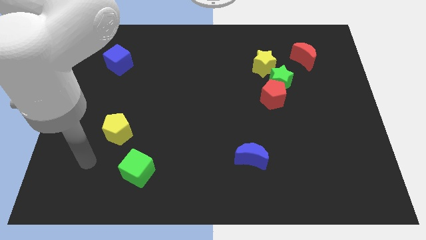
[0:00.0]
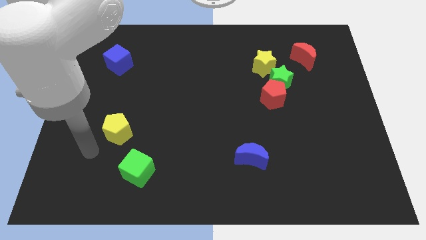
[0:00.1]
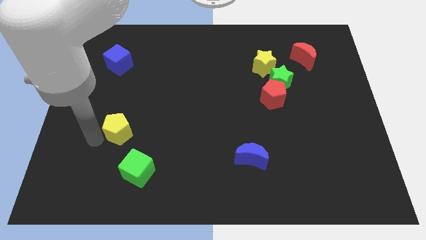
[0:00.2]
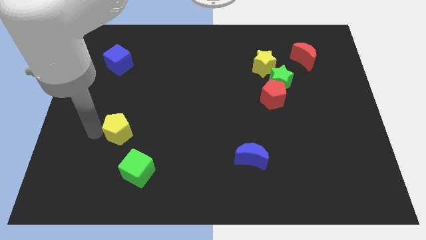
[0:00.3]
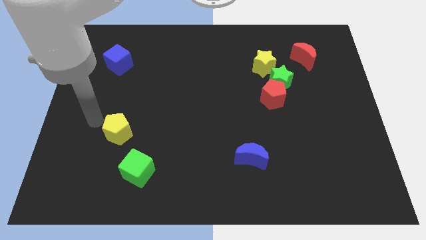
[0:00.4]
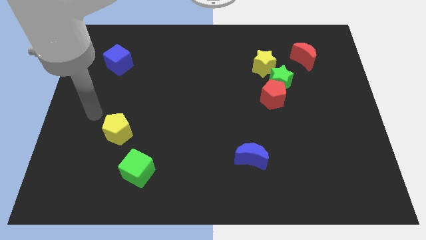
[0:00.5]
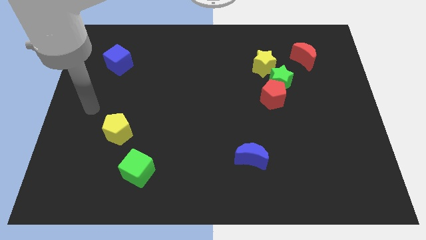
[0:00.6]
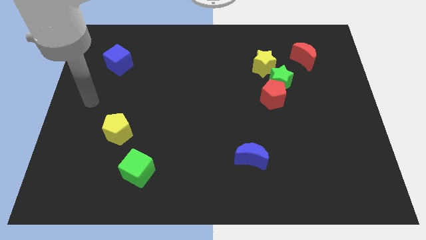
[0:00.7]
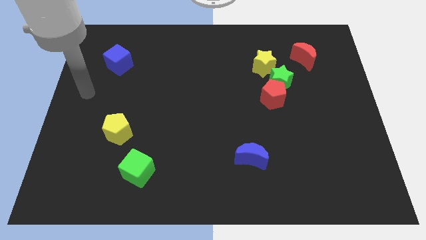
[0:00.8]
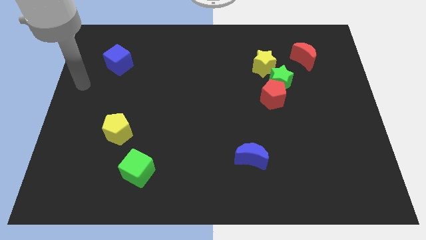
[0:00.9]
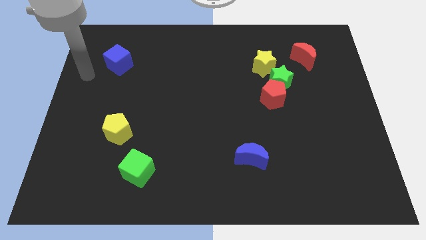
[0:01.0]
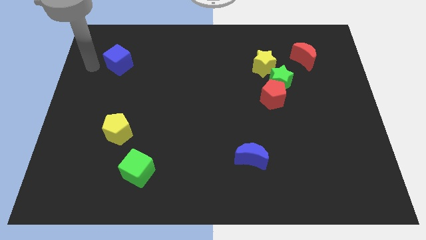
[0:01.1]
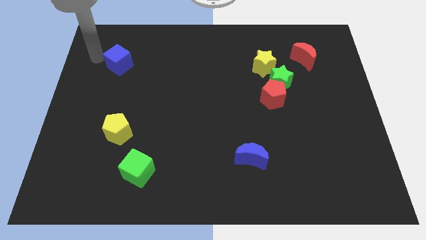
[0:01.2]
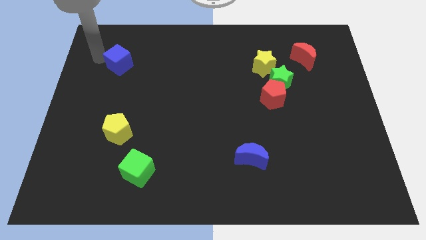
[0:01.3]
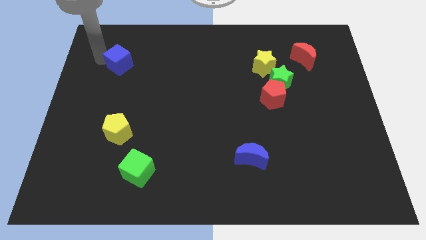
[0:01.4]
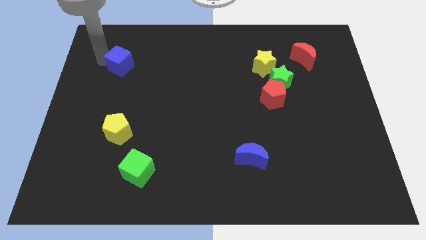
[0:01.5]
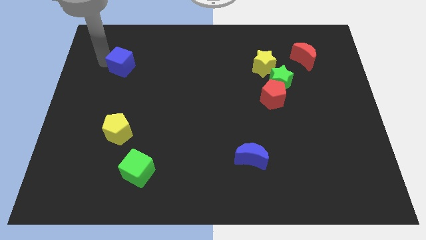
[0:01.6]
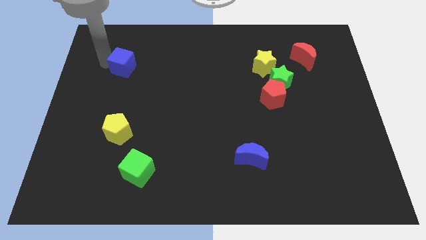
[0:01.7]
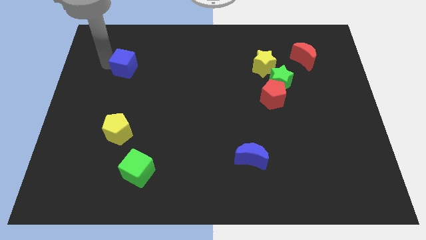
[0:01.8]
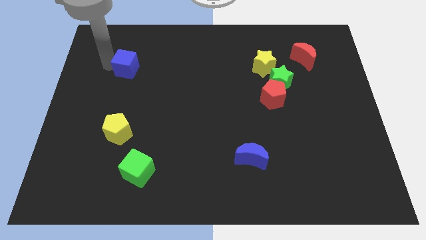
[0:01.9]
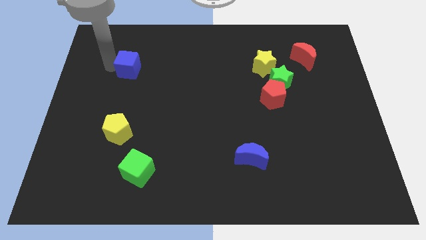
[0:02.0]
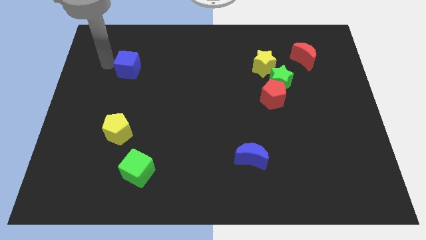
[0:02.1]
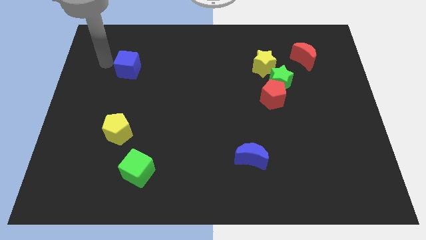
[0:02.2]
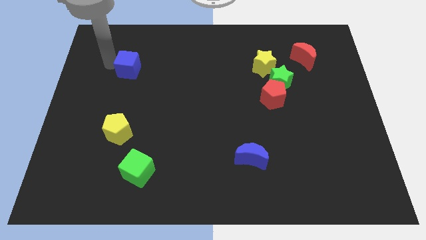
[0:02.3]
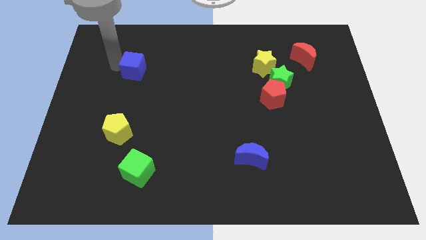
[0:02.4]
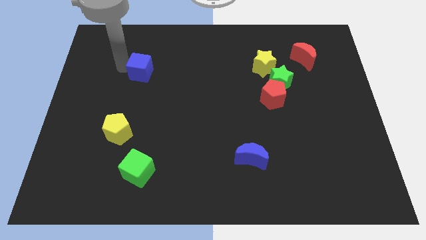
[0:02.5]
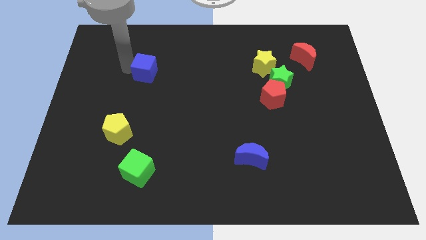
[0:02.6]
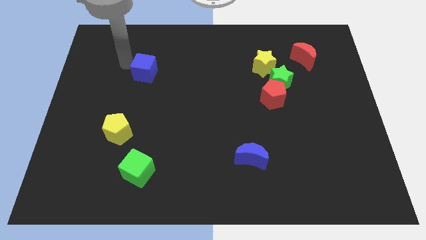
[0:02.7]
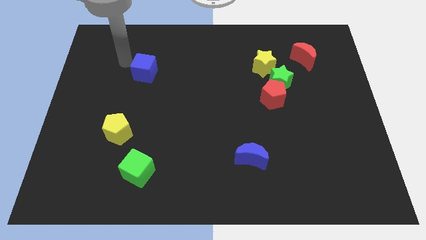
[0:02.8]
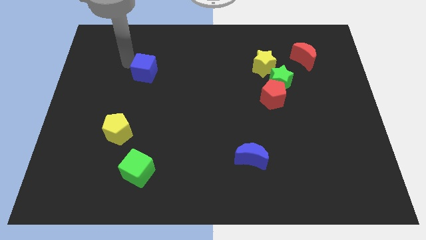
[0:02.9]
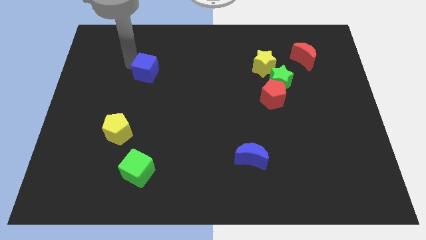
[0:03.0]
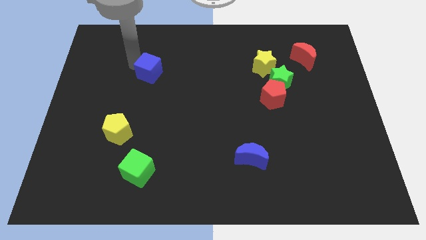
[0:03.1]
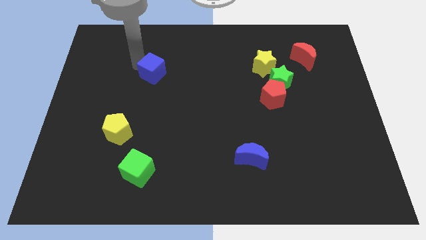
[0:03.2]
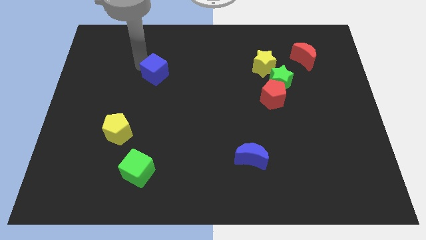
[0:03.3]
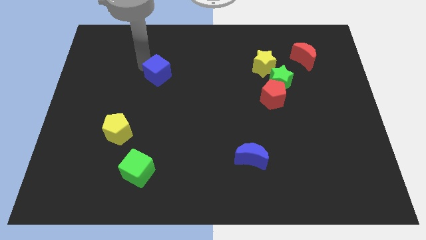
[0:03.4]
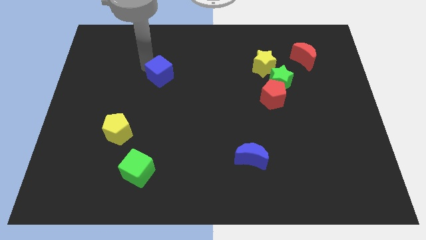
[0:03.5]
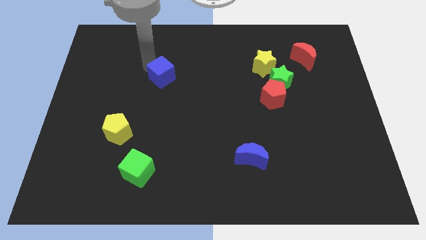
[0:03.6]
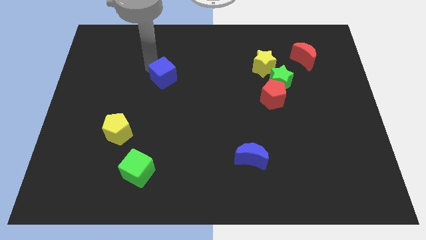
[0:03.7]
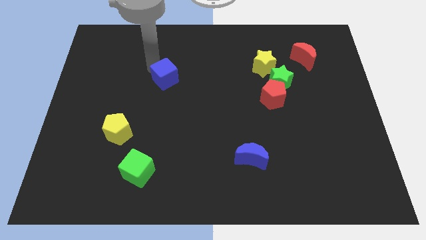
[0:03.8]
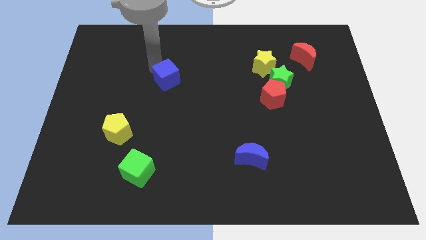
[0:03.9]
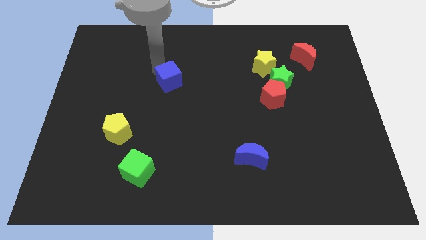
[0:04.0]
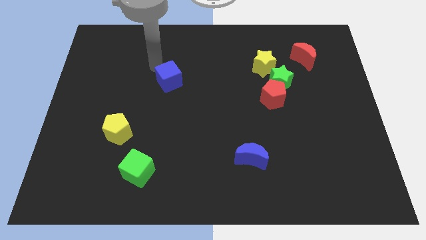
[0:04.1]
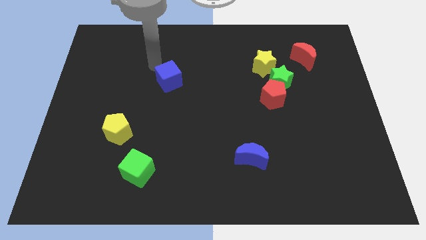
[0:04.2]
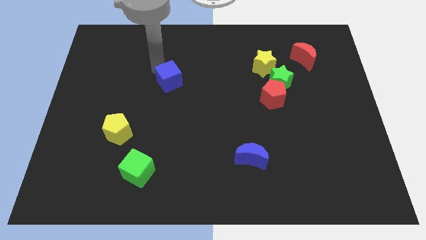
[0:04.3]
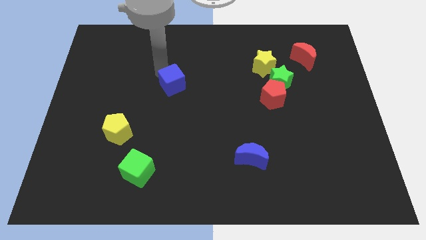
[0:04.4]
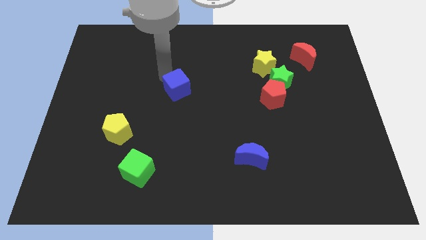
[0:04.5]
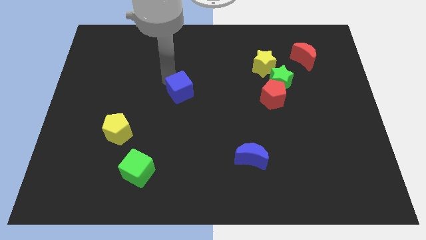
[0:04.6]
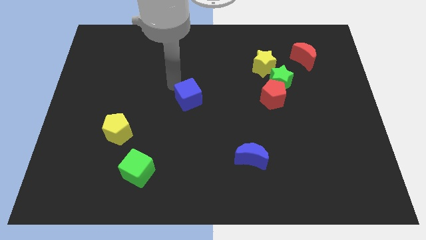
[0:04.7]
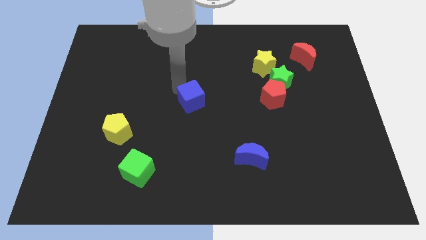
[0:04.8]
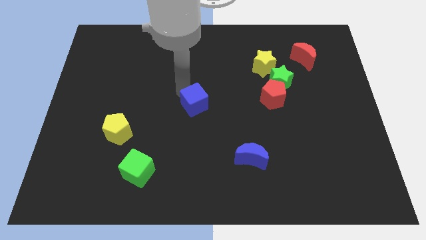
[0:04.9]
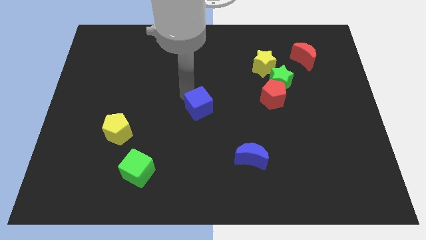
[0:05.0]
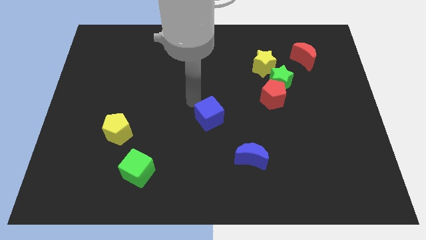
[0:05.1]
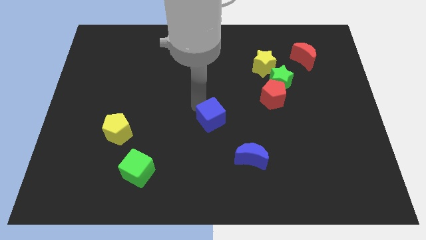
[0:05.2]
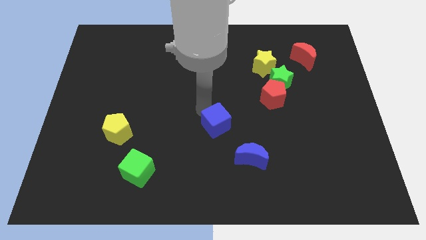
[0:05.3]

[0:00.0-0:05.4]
put the blue cube diagonally up and to the left of the blue moon

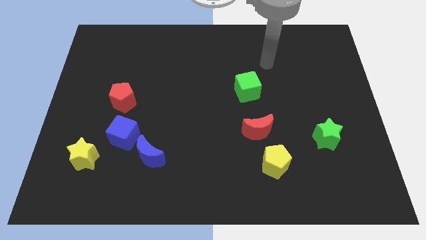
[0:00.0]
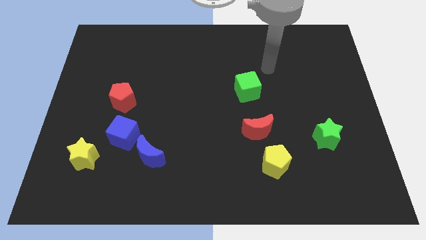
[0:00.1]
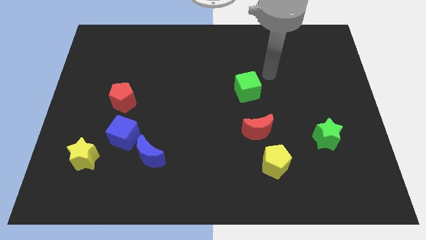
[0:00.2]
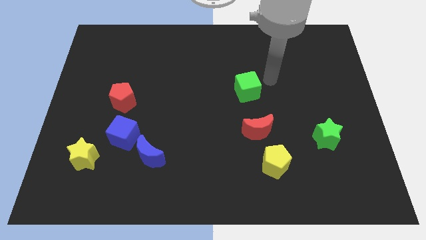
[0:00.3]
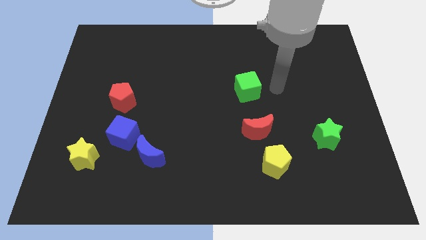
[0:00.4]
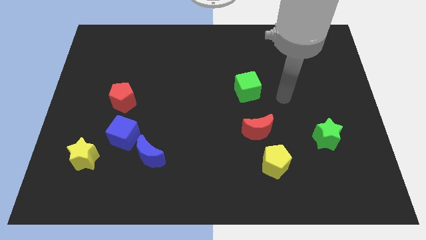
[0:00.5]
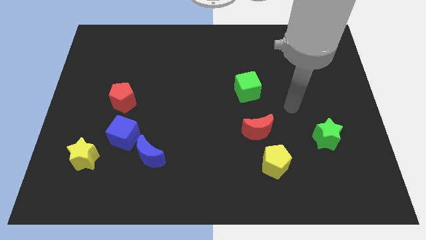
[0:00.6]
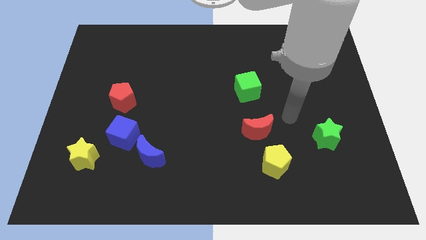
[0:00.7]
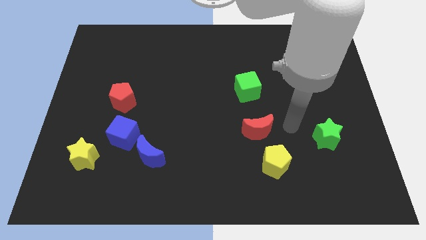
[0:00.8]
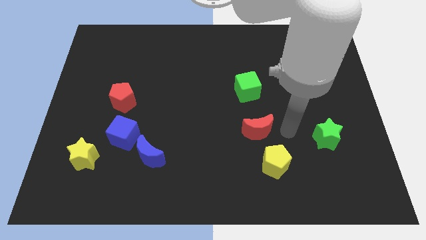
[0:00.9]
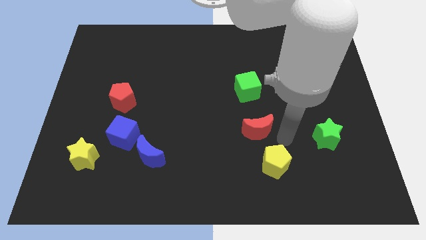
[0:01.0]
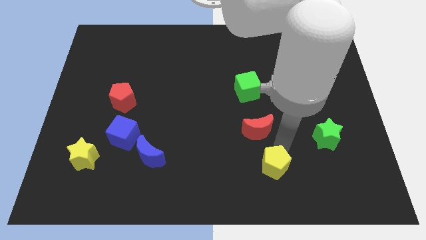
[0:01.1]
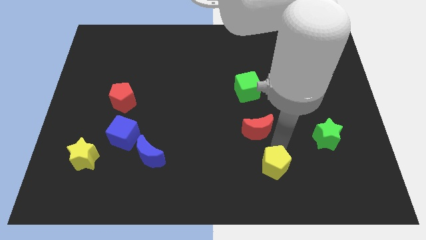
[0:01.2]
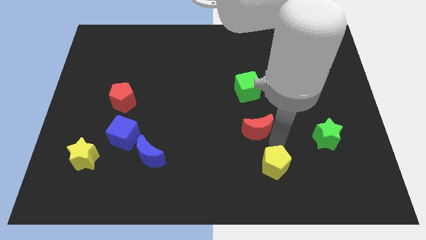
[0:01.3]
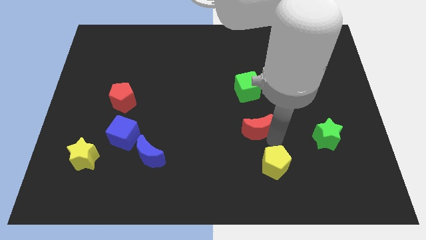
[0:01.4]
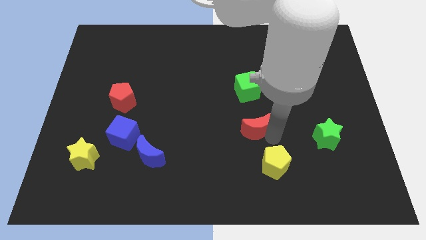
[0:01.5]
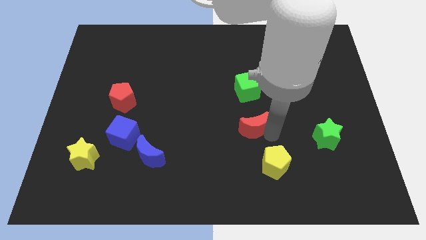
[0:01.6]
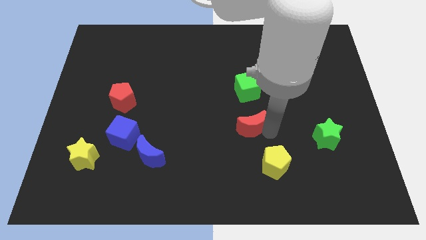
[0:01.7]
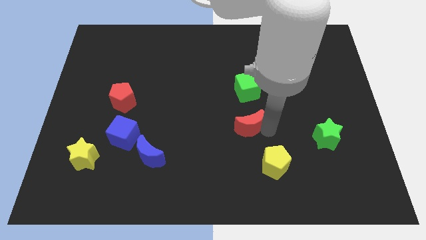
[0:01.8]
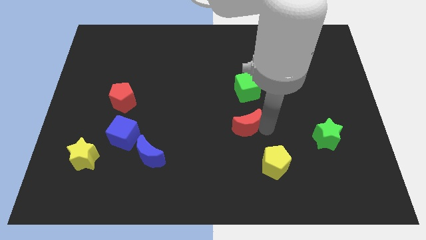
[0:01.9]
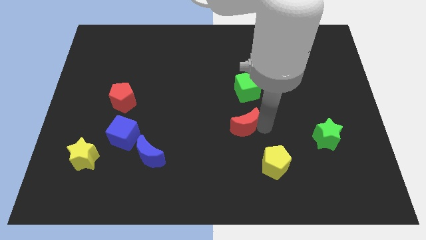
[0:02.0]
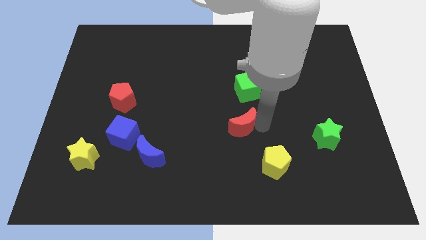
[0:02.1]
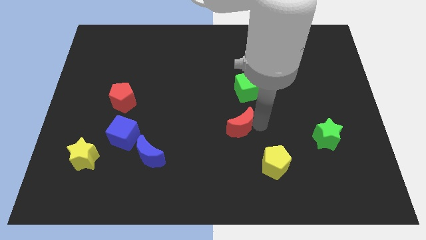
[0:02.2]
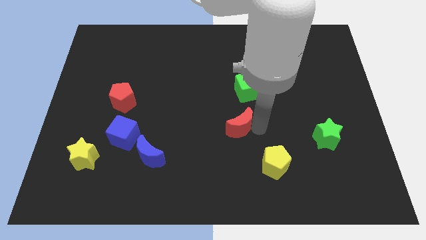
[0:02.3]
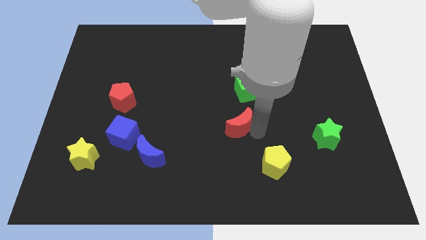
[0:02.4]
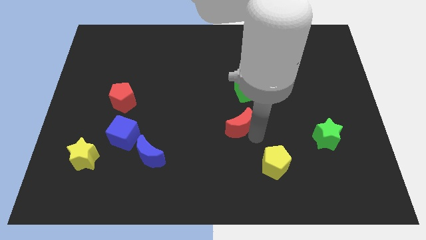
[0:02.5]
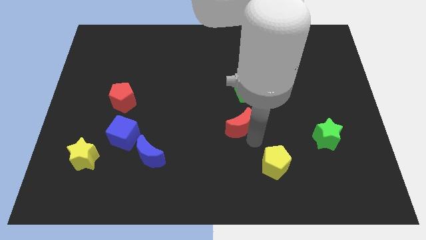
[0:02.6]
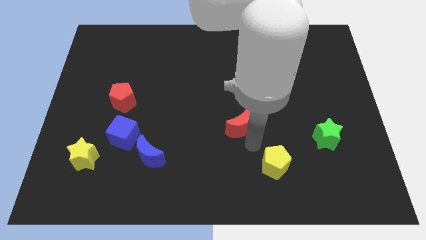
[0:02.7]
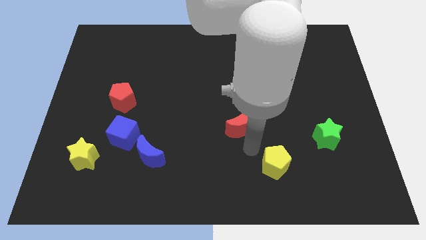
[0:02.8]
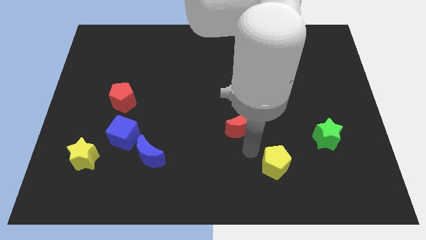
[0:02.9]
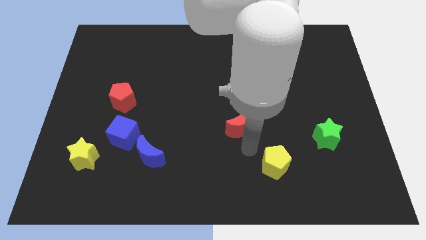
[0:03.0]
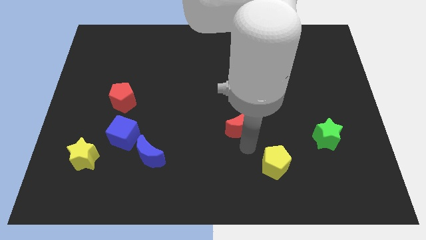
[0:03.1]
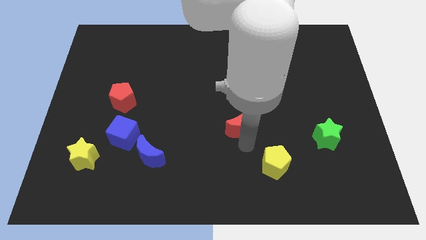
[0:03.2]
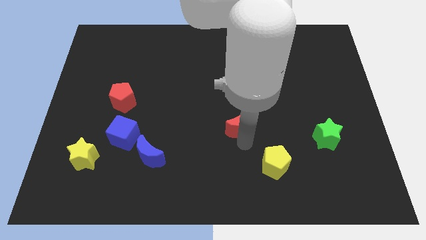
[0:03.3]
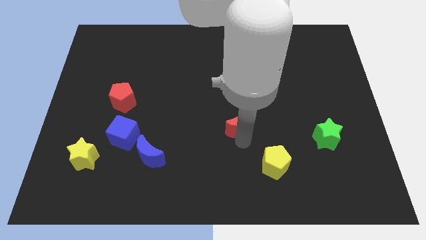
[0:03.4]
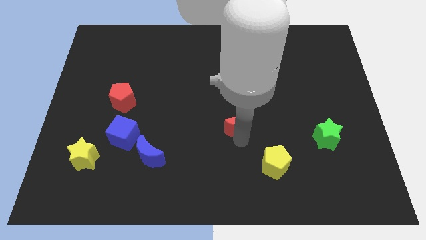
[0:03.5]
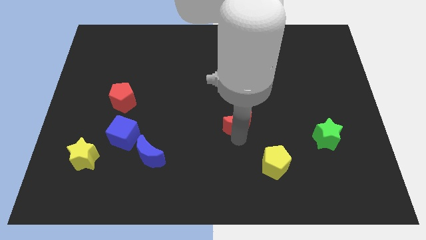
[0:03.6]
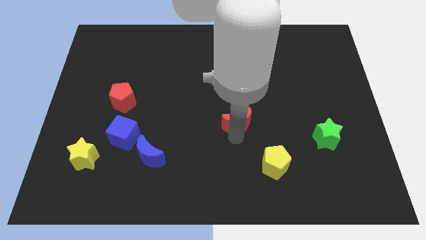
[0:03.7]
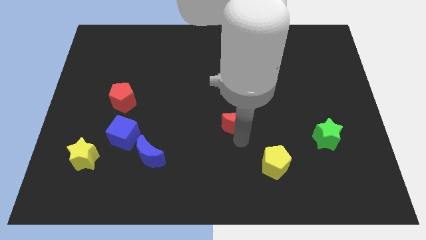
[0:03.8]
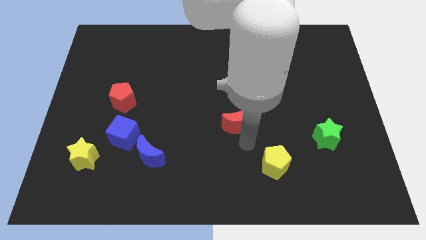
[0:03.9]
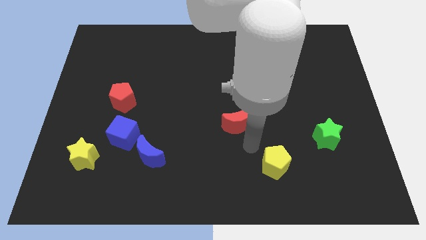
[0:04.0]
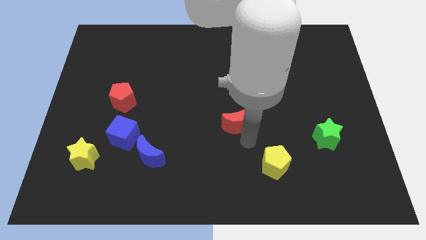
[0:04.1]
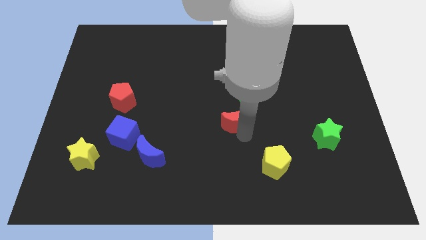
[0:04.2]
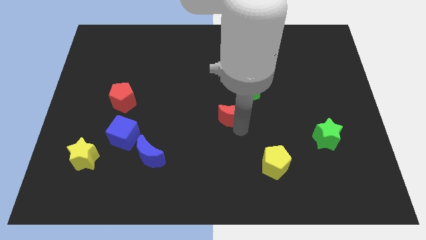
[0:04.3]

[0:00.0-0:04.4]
push the red moon diagonally down and to the left of the green cube
